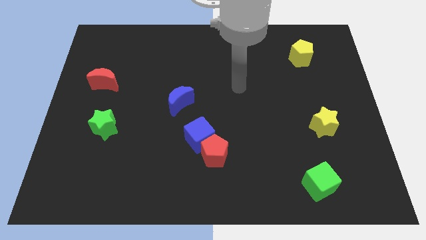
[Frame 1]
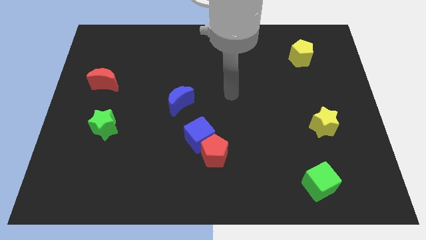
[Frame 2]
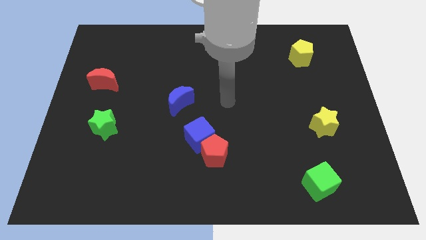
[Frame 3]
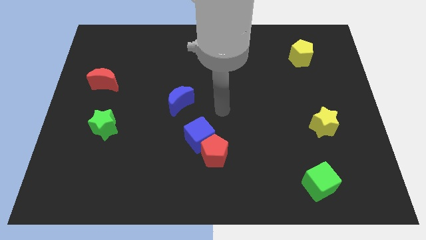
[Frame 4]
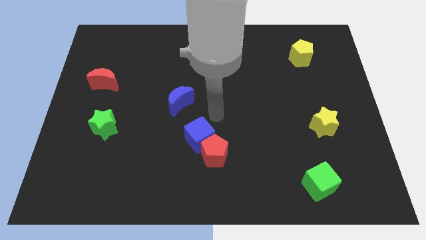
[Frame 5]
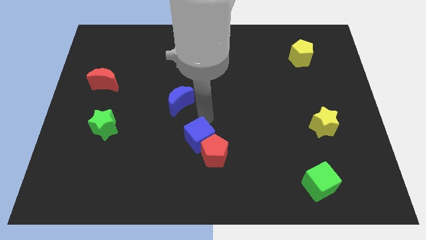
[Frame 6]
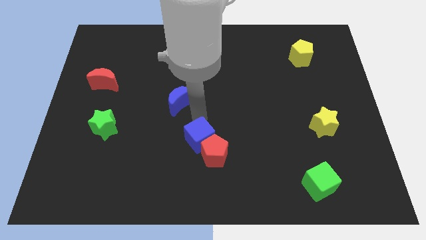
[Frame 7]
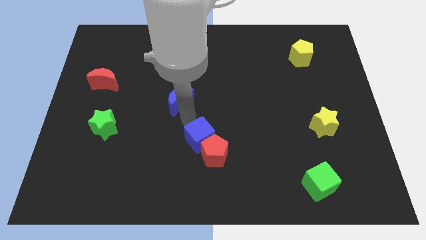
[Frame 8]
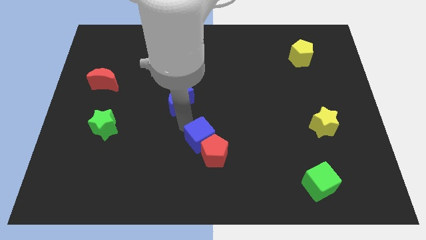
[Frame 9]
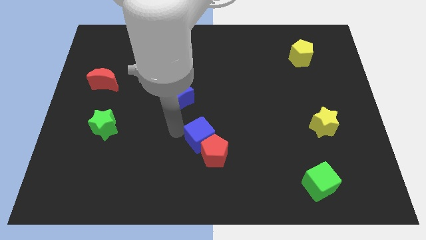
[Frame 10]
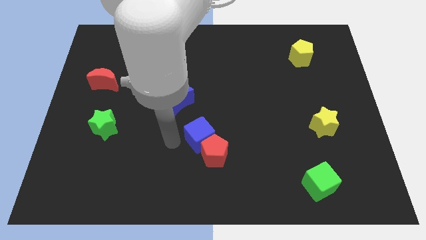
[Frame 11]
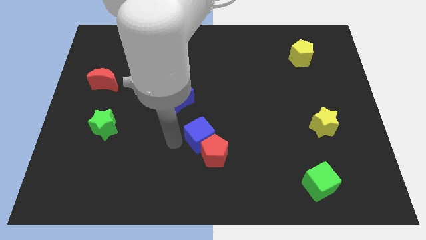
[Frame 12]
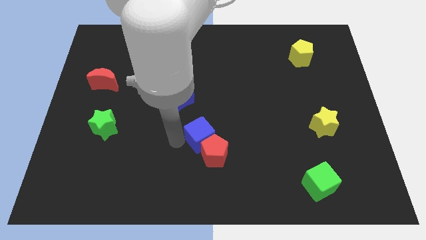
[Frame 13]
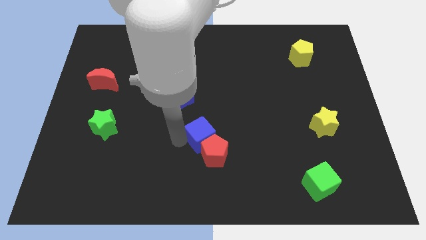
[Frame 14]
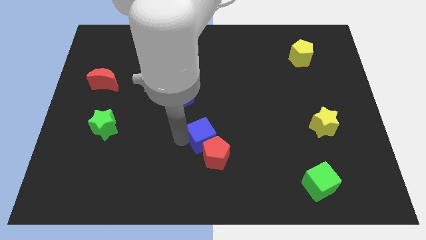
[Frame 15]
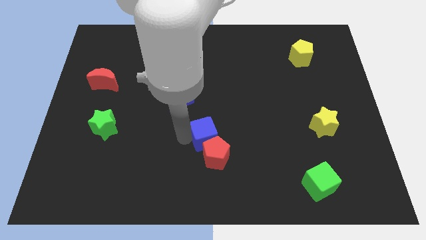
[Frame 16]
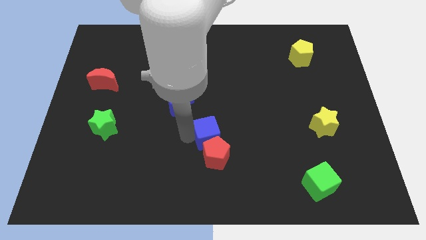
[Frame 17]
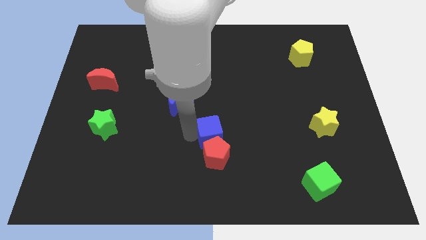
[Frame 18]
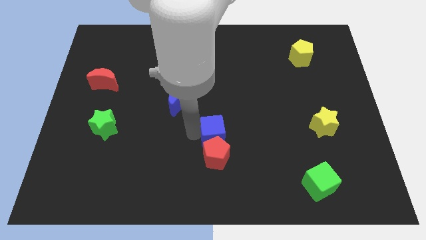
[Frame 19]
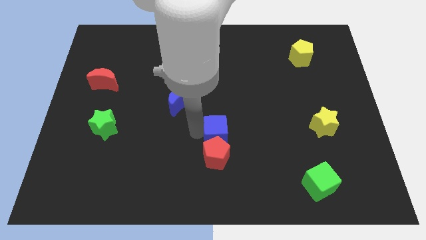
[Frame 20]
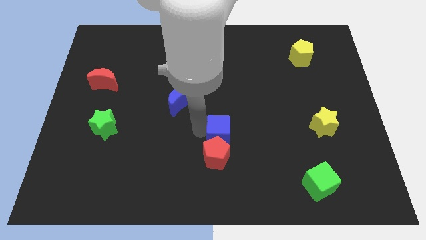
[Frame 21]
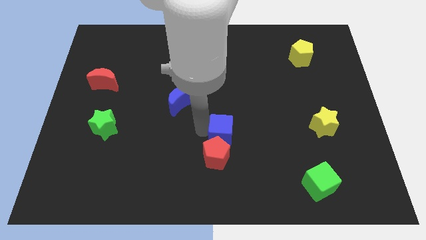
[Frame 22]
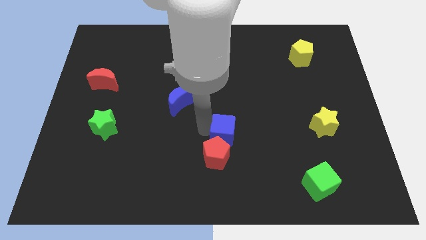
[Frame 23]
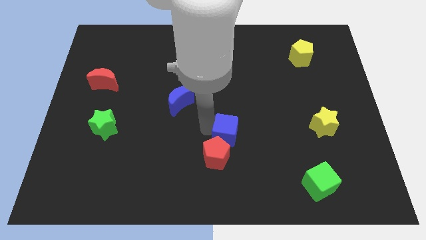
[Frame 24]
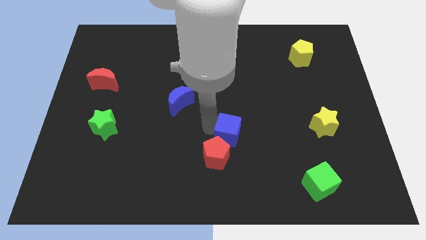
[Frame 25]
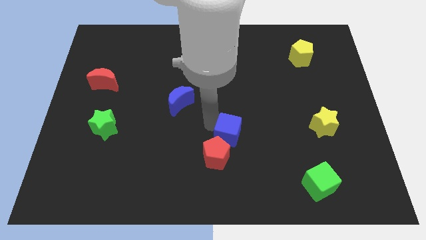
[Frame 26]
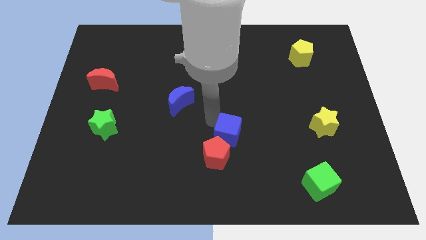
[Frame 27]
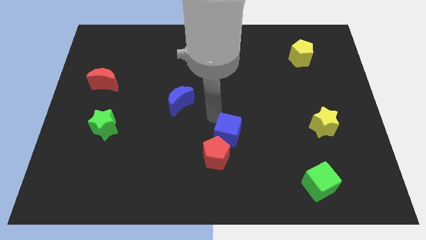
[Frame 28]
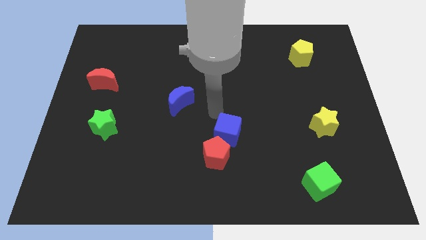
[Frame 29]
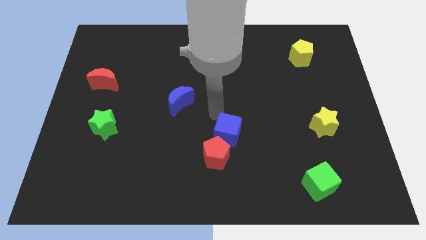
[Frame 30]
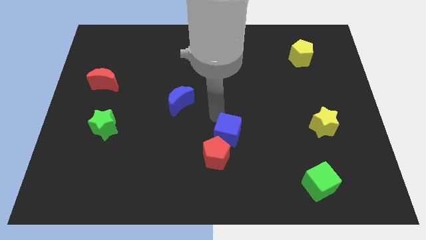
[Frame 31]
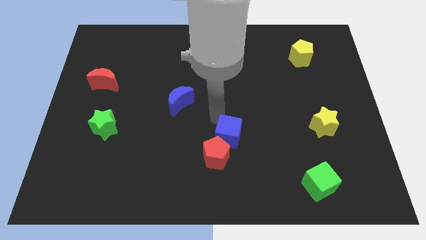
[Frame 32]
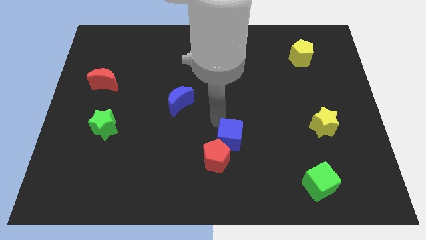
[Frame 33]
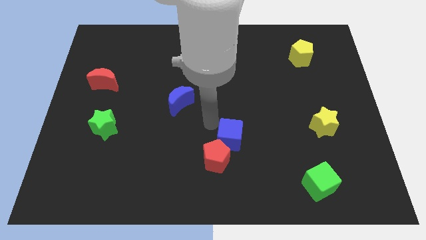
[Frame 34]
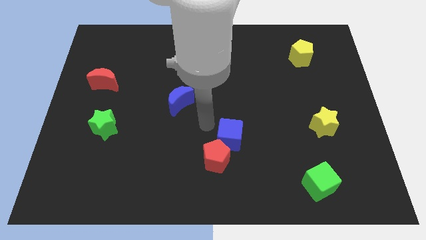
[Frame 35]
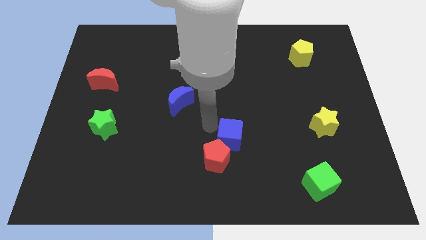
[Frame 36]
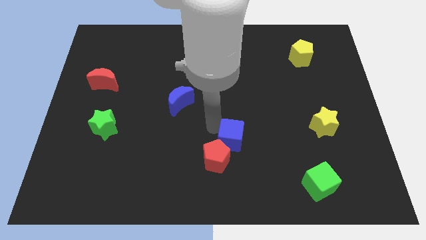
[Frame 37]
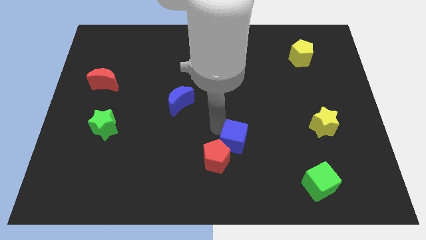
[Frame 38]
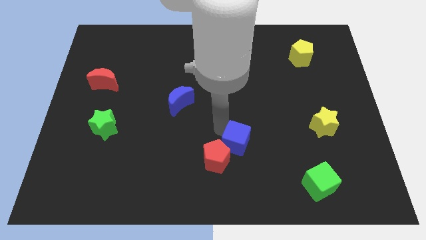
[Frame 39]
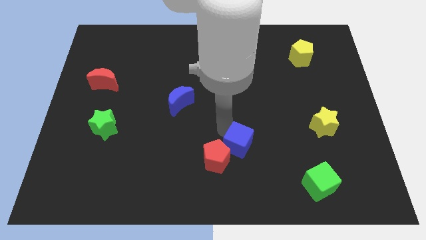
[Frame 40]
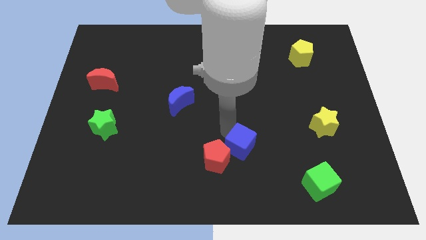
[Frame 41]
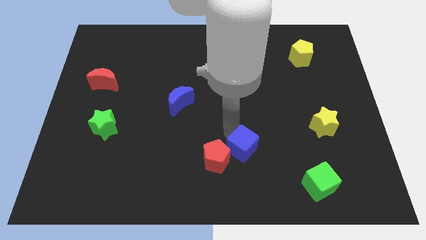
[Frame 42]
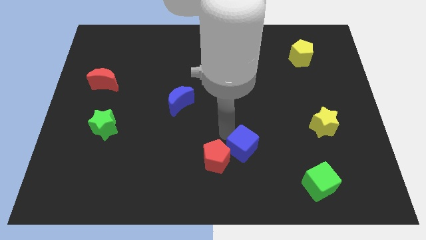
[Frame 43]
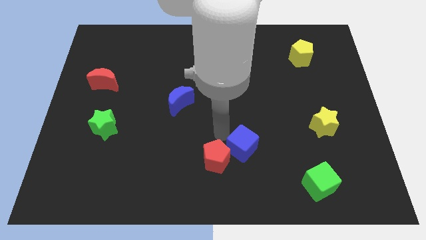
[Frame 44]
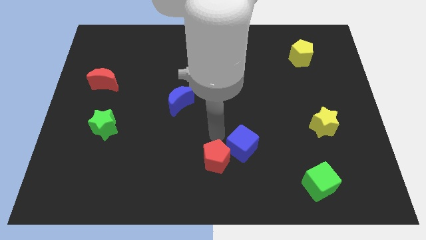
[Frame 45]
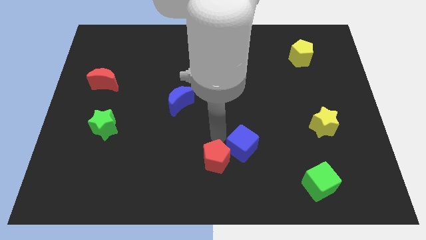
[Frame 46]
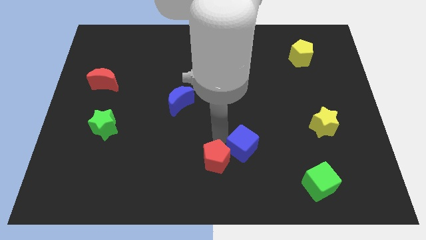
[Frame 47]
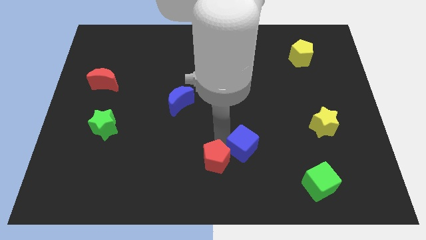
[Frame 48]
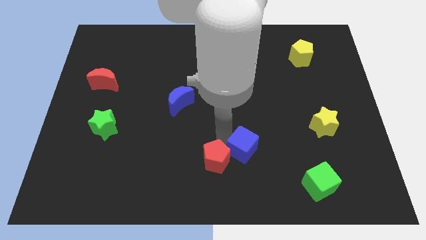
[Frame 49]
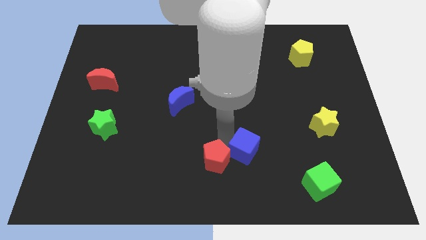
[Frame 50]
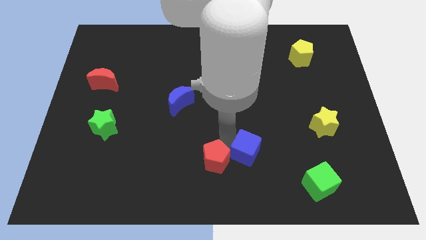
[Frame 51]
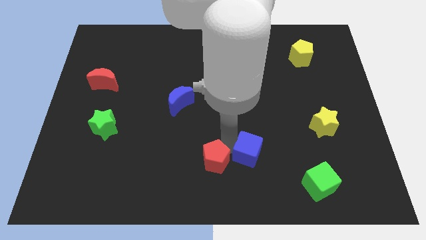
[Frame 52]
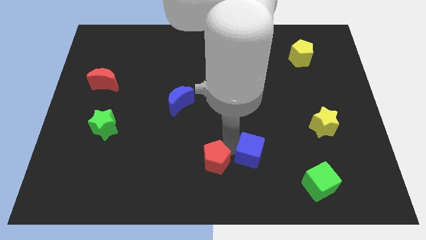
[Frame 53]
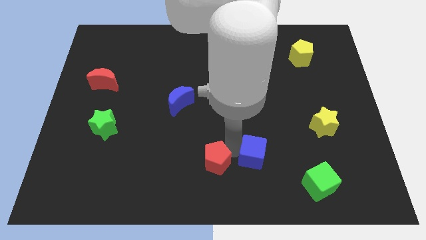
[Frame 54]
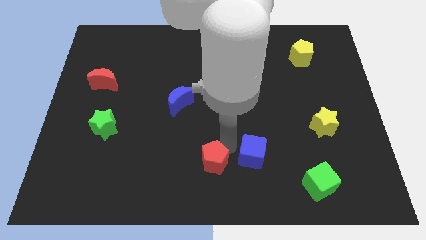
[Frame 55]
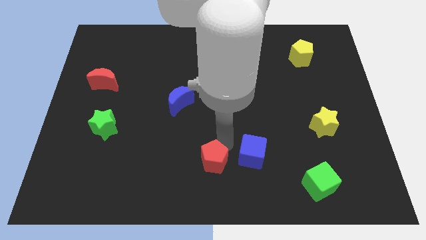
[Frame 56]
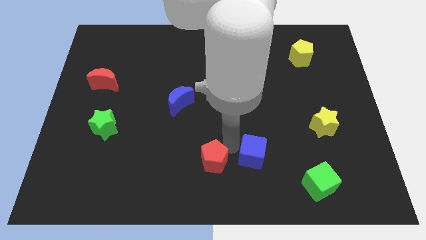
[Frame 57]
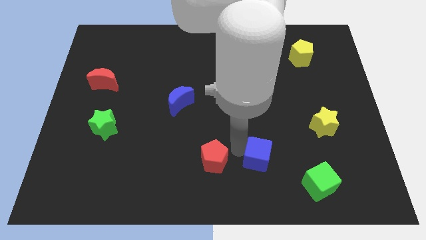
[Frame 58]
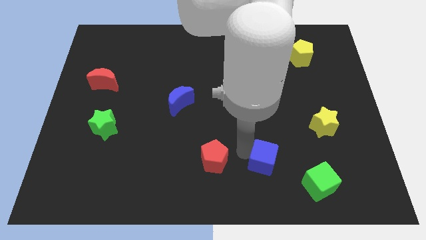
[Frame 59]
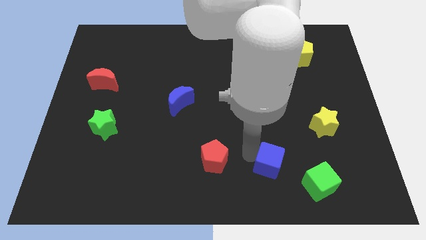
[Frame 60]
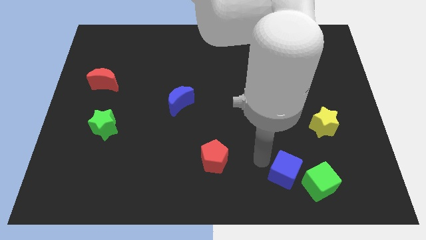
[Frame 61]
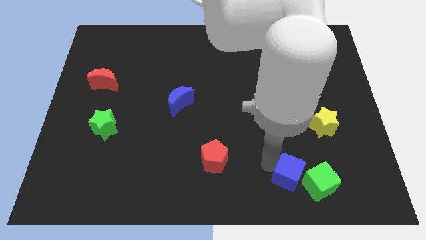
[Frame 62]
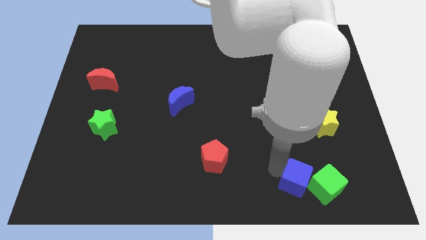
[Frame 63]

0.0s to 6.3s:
slide the blue cube to the green cube
